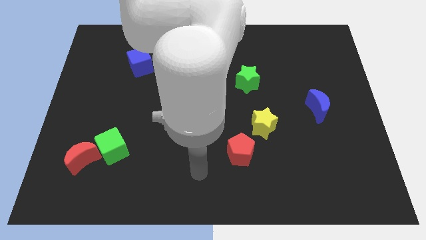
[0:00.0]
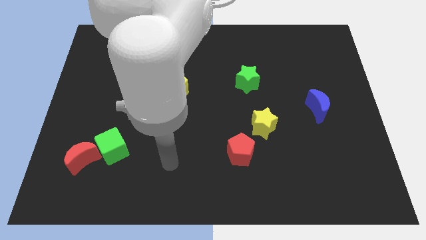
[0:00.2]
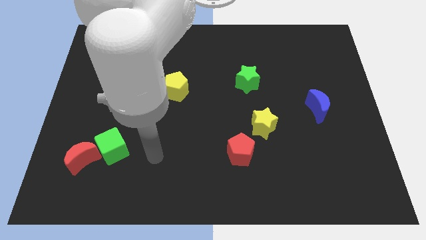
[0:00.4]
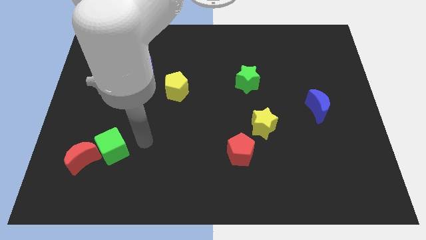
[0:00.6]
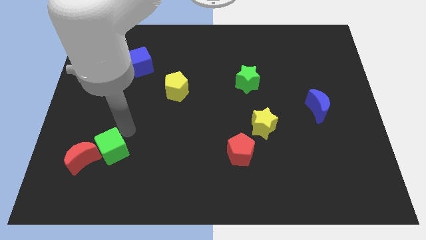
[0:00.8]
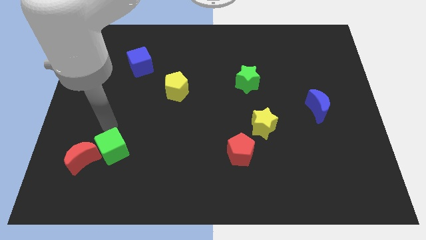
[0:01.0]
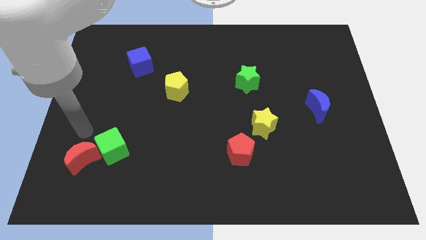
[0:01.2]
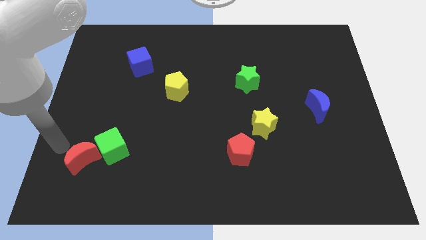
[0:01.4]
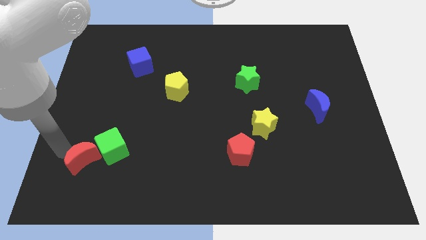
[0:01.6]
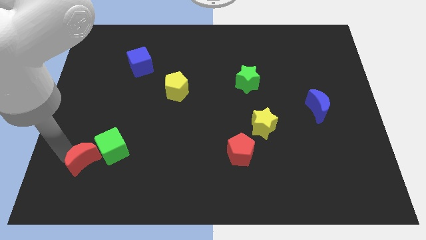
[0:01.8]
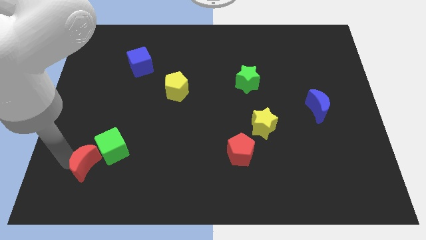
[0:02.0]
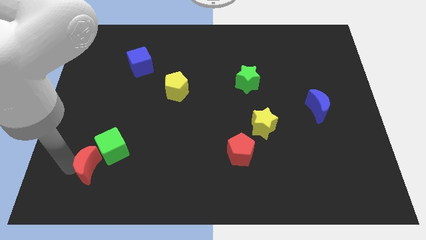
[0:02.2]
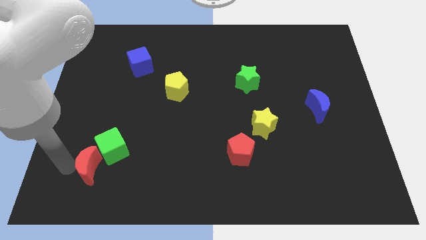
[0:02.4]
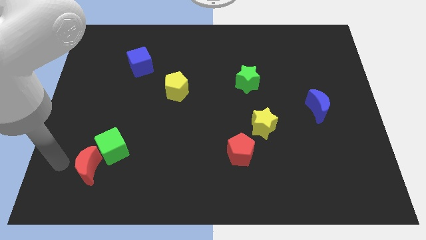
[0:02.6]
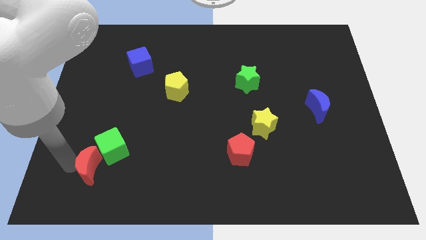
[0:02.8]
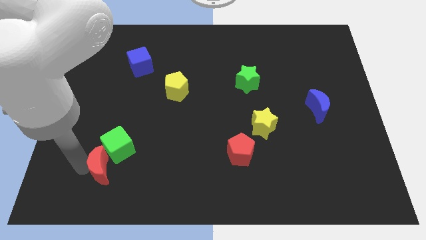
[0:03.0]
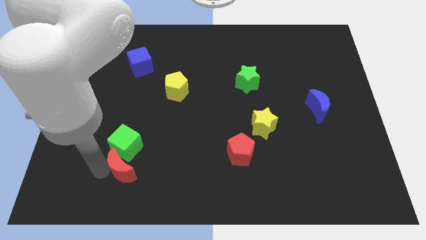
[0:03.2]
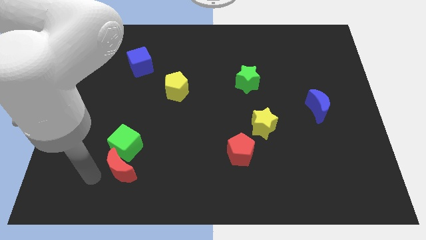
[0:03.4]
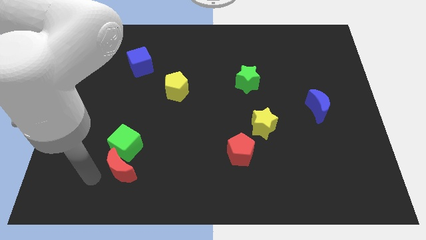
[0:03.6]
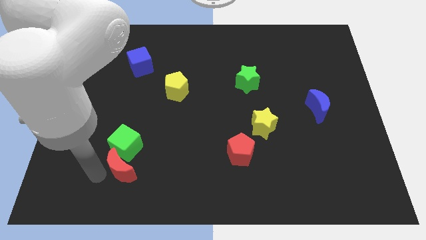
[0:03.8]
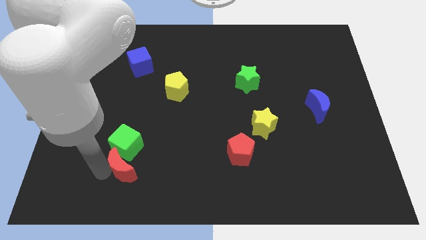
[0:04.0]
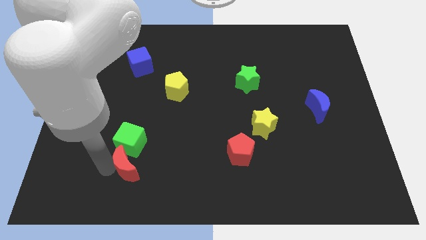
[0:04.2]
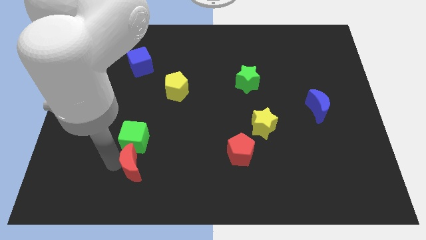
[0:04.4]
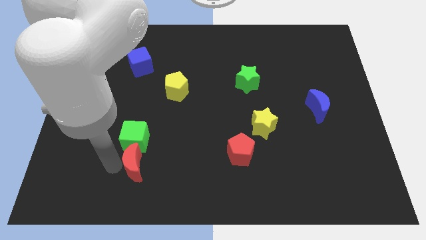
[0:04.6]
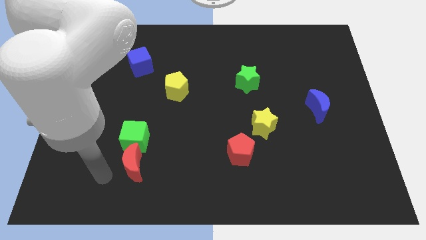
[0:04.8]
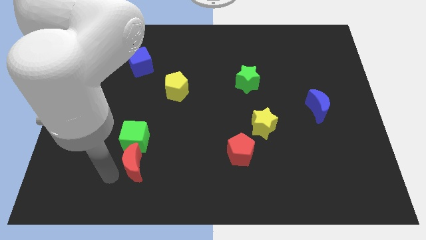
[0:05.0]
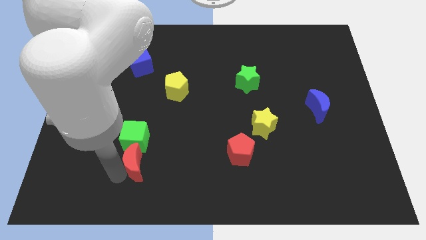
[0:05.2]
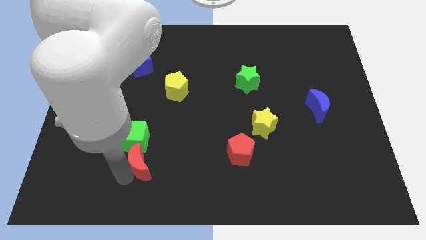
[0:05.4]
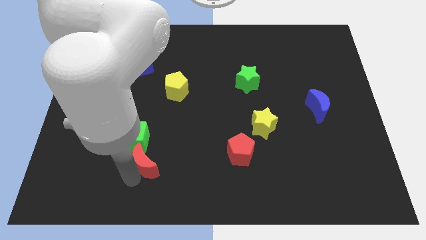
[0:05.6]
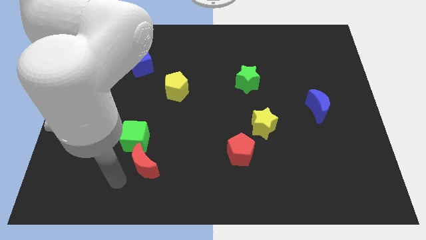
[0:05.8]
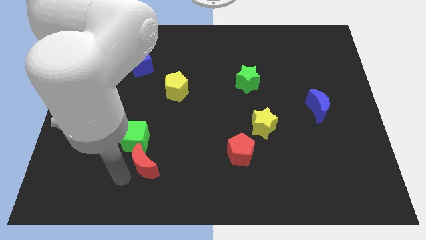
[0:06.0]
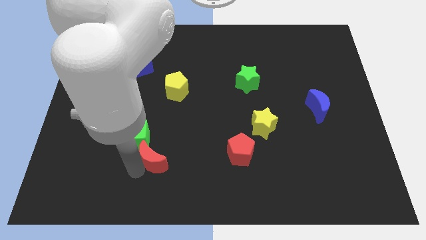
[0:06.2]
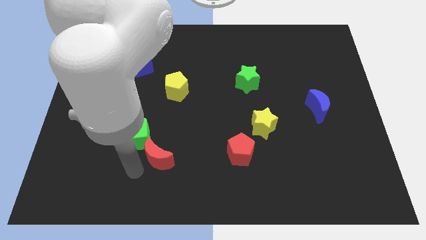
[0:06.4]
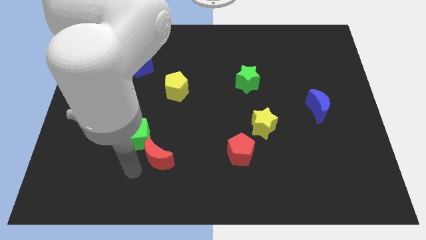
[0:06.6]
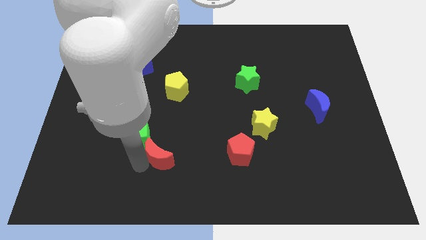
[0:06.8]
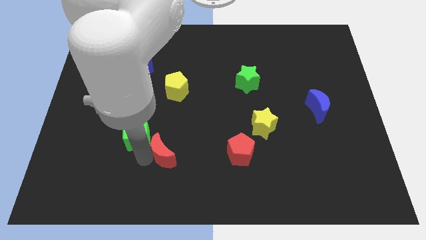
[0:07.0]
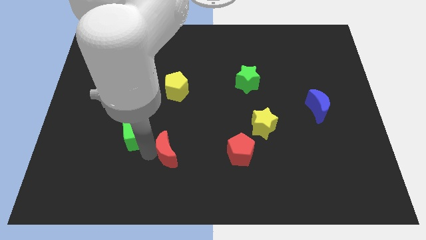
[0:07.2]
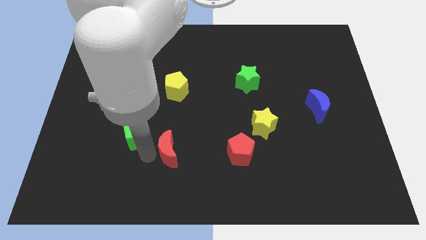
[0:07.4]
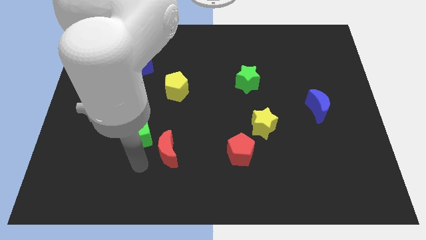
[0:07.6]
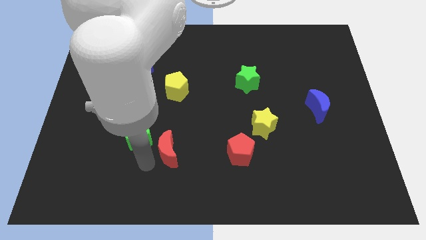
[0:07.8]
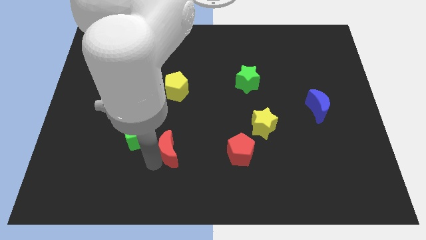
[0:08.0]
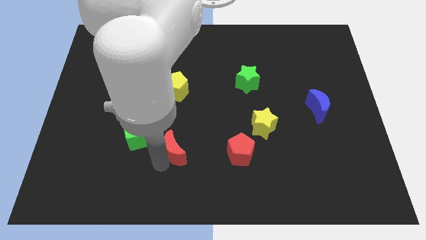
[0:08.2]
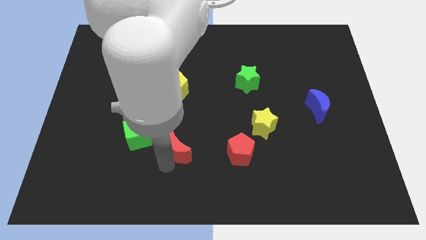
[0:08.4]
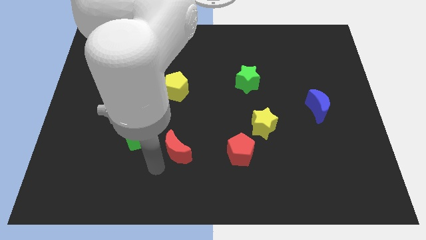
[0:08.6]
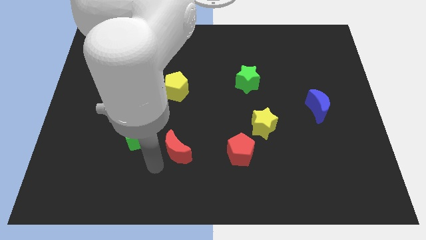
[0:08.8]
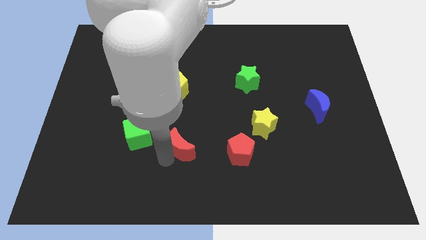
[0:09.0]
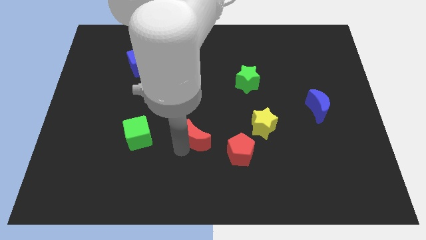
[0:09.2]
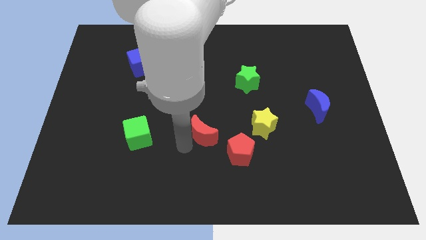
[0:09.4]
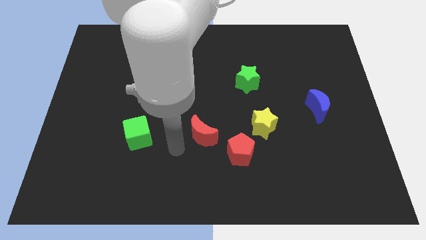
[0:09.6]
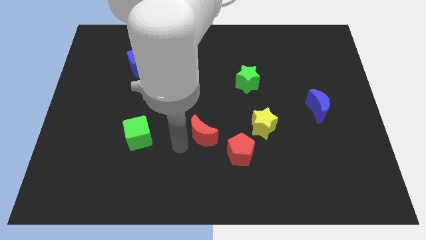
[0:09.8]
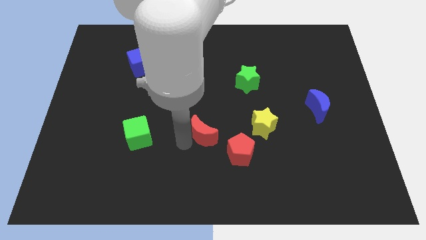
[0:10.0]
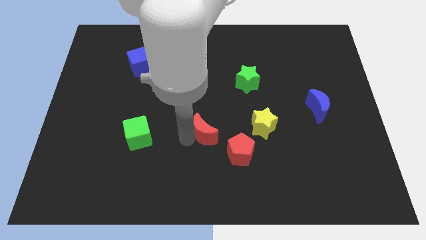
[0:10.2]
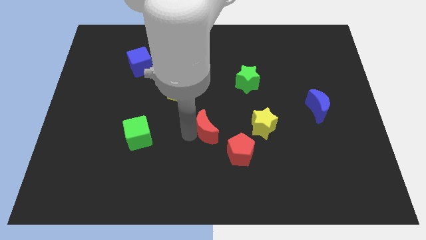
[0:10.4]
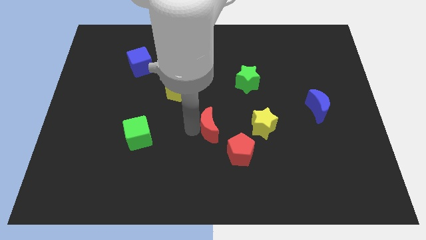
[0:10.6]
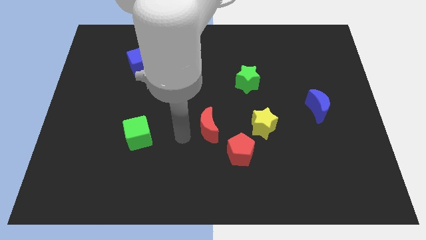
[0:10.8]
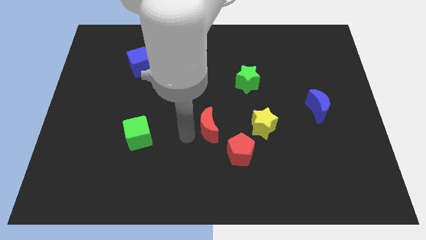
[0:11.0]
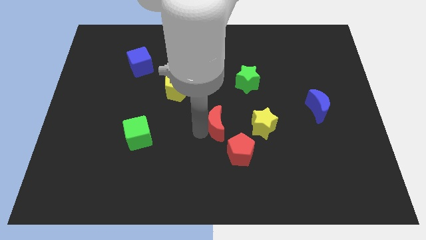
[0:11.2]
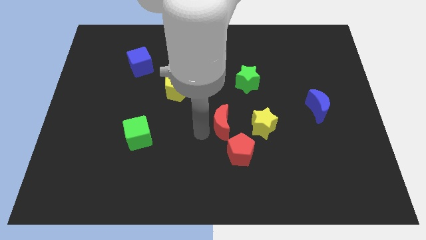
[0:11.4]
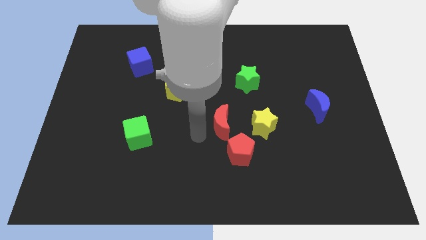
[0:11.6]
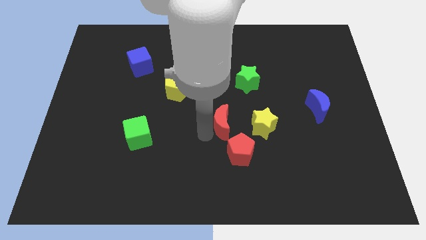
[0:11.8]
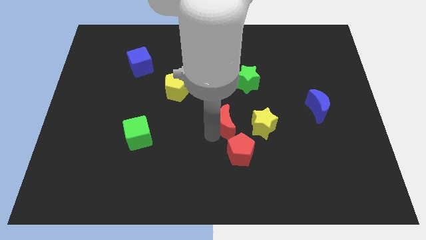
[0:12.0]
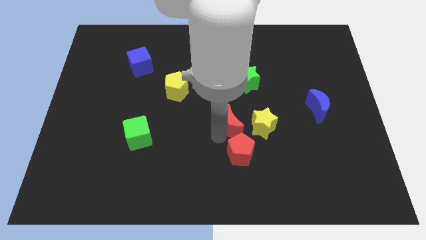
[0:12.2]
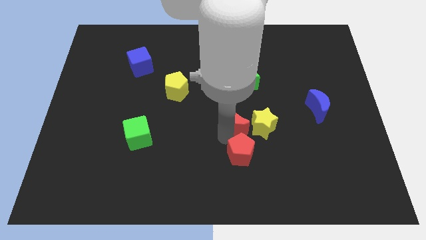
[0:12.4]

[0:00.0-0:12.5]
put the red moon to the yellow star

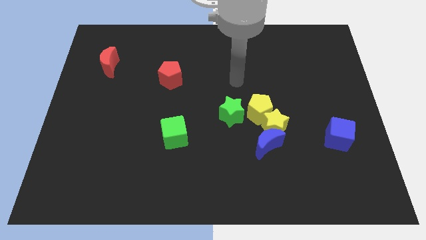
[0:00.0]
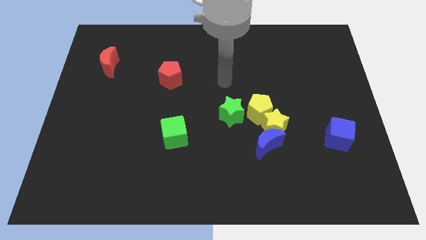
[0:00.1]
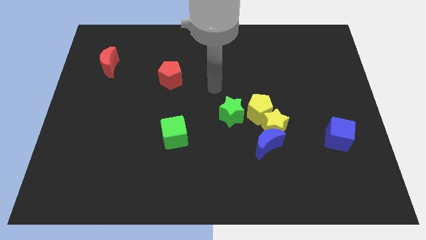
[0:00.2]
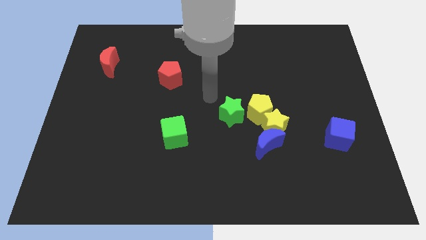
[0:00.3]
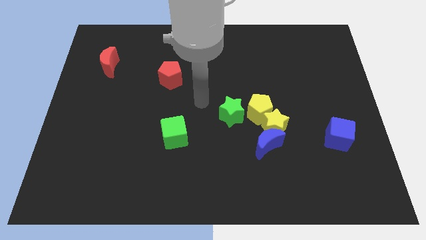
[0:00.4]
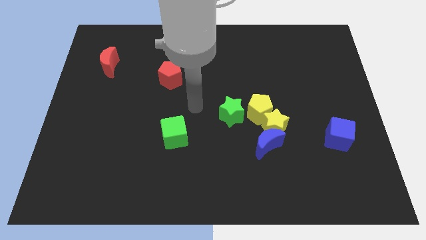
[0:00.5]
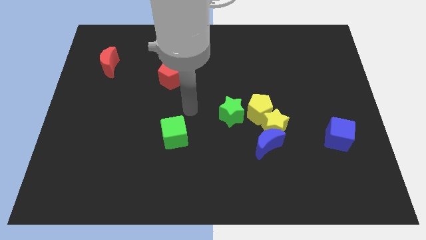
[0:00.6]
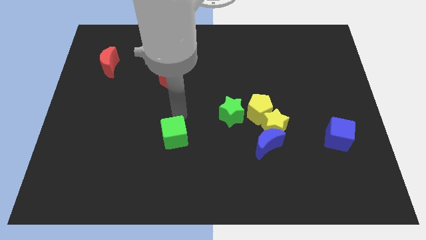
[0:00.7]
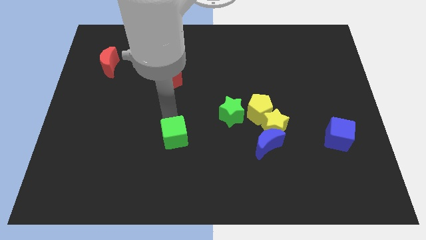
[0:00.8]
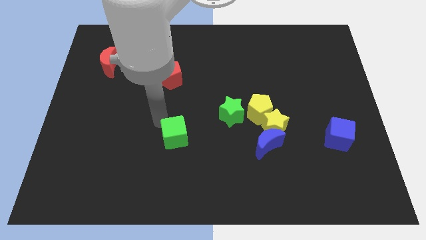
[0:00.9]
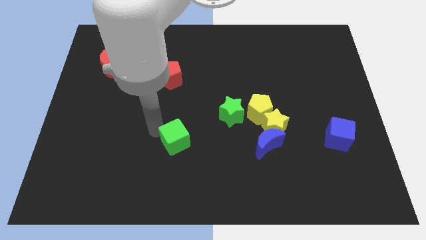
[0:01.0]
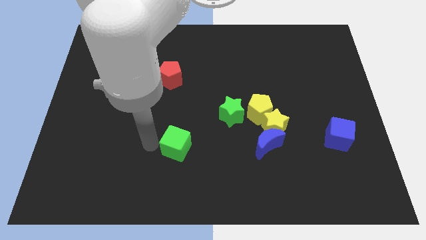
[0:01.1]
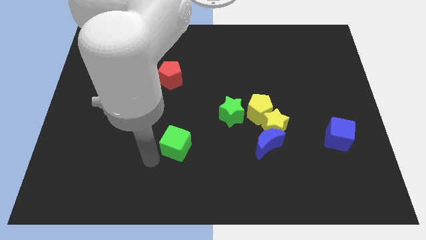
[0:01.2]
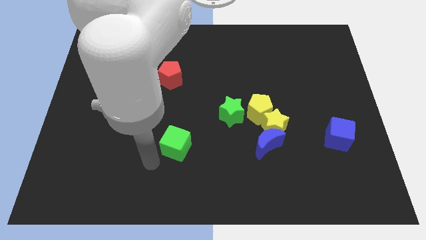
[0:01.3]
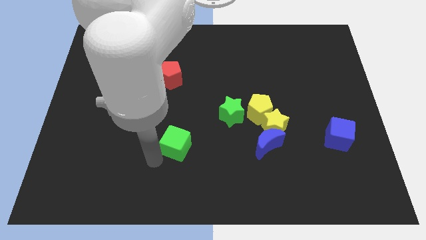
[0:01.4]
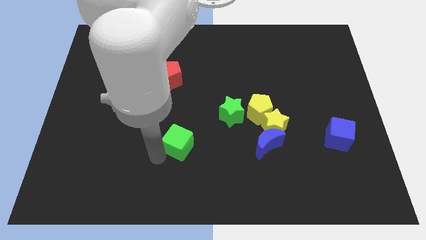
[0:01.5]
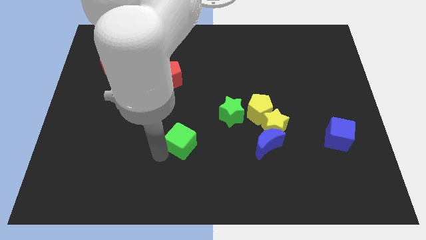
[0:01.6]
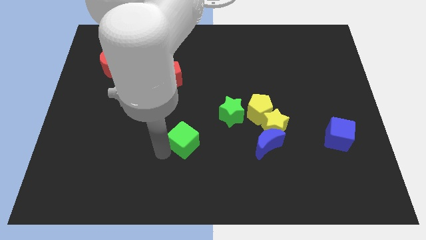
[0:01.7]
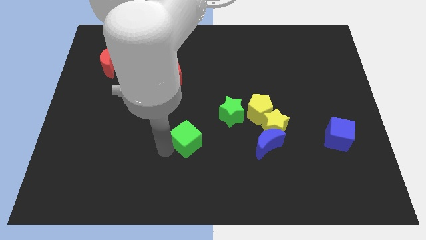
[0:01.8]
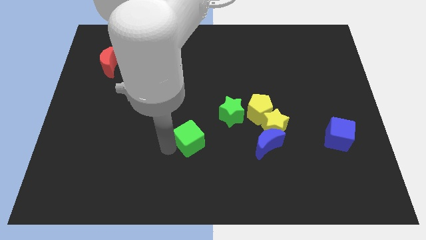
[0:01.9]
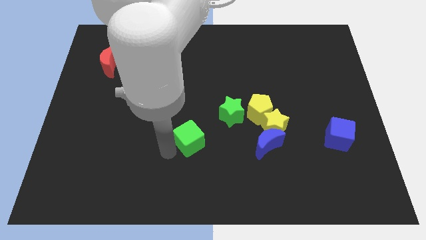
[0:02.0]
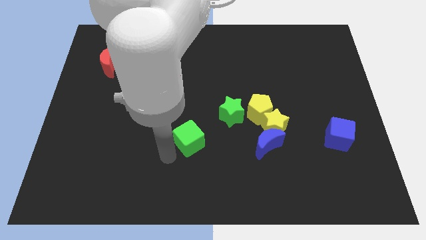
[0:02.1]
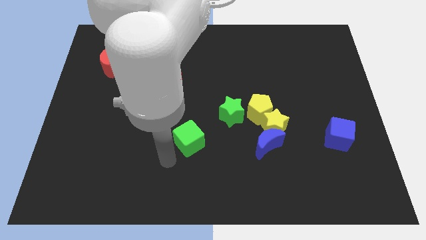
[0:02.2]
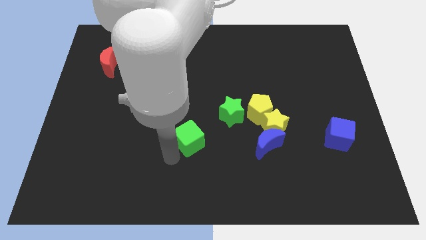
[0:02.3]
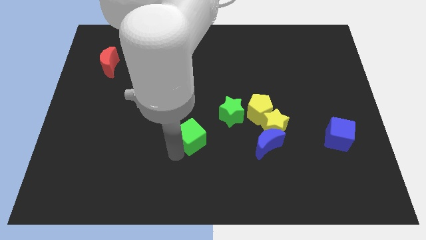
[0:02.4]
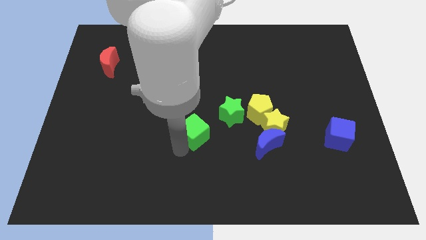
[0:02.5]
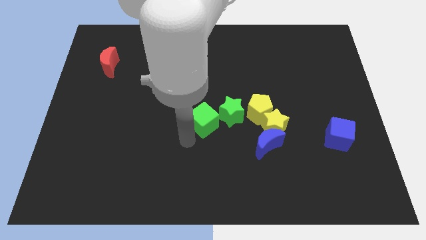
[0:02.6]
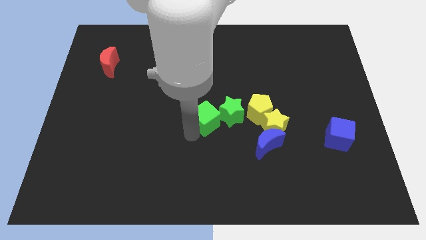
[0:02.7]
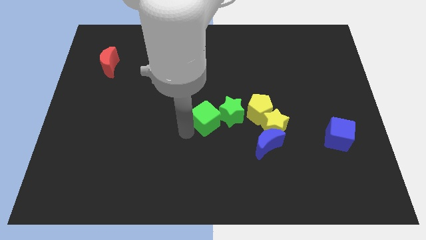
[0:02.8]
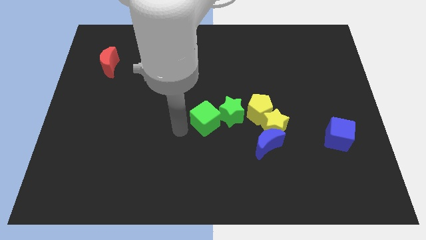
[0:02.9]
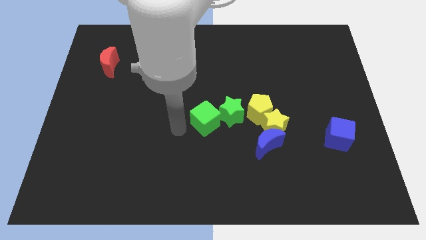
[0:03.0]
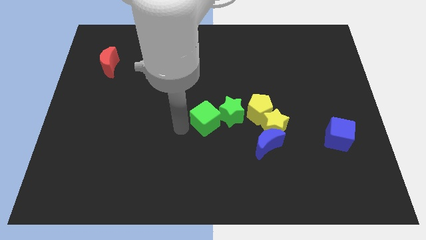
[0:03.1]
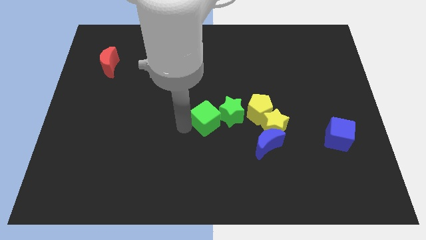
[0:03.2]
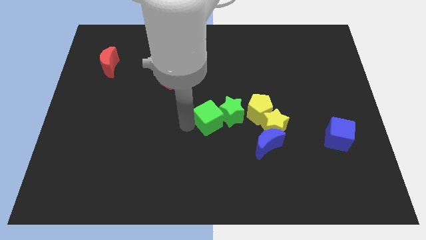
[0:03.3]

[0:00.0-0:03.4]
move the green cube to the green star
